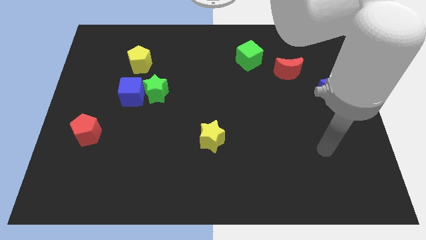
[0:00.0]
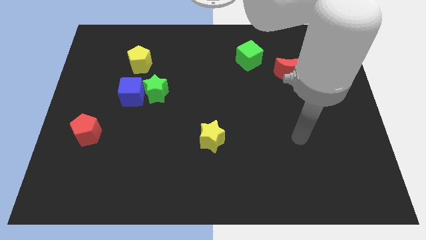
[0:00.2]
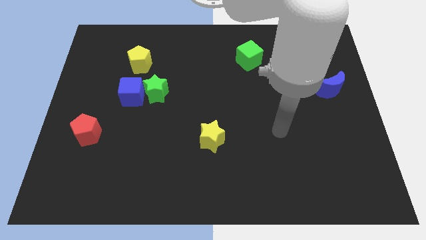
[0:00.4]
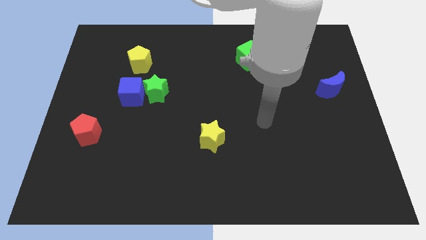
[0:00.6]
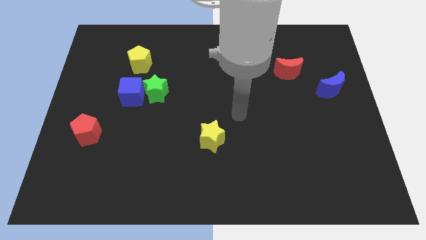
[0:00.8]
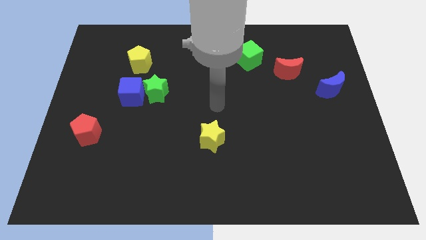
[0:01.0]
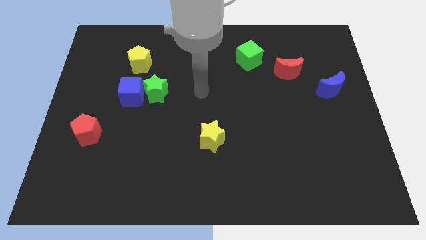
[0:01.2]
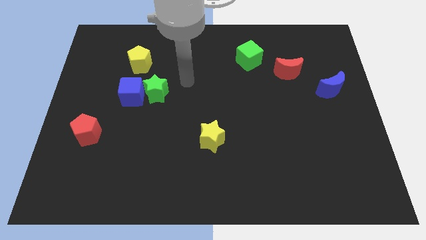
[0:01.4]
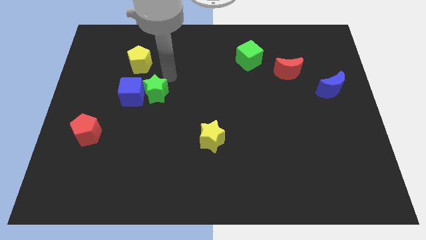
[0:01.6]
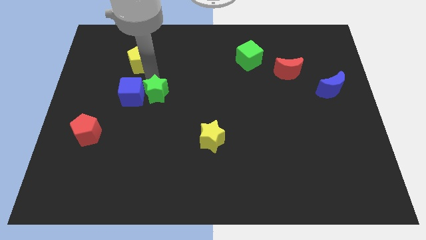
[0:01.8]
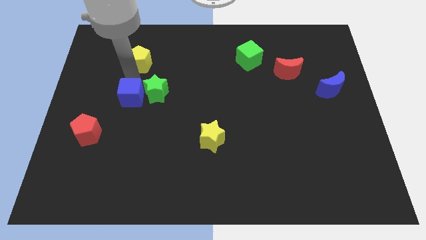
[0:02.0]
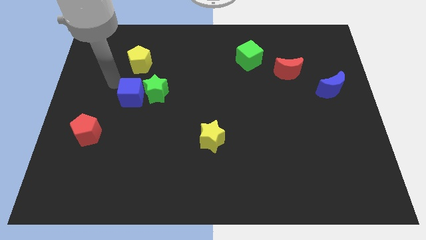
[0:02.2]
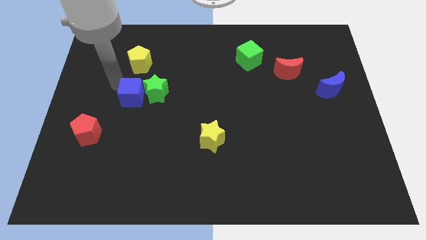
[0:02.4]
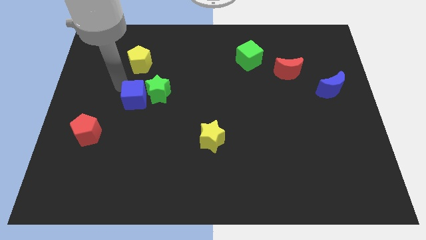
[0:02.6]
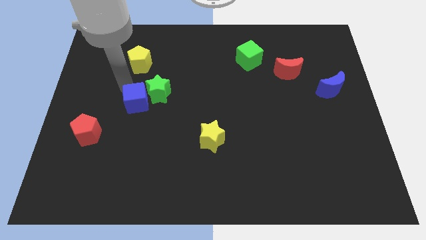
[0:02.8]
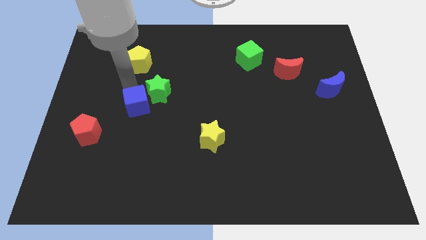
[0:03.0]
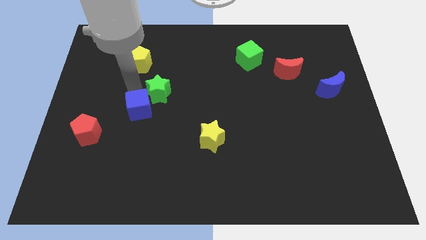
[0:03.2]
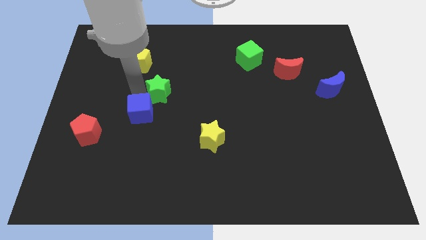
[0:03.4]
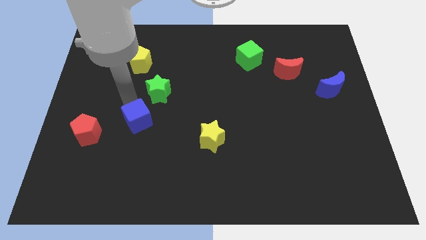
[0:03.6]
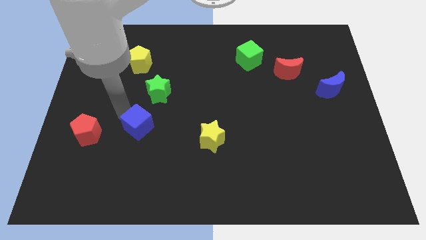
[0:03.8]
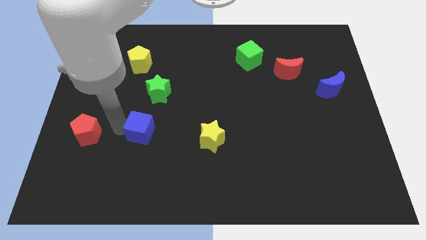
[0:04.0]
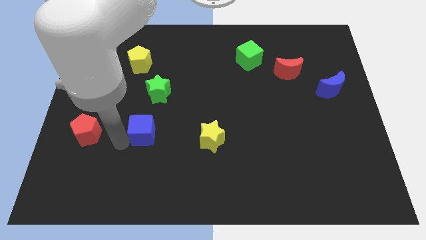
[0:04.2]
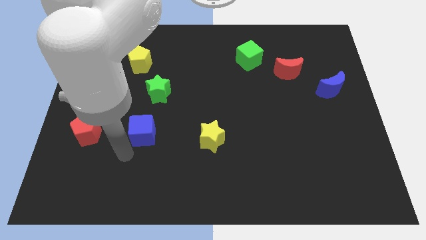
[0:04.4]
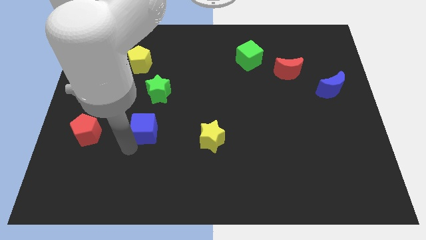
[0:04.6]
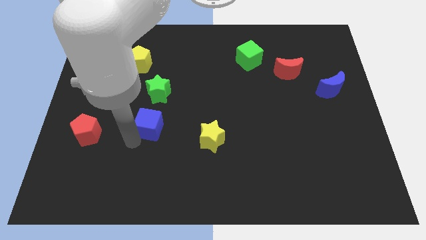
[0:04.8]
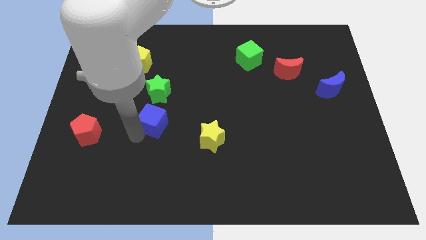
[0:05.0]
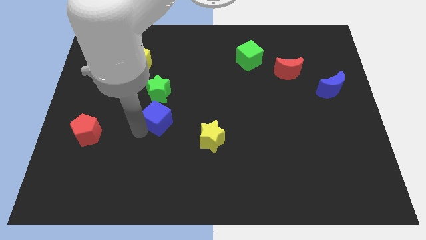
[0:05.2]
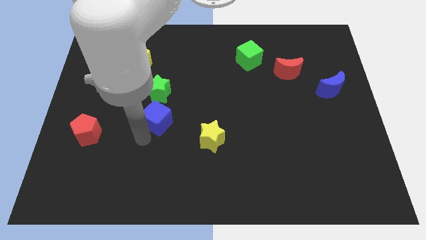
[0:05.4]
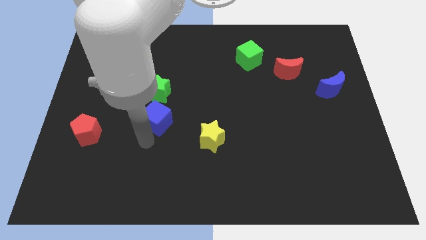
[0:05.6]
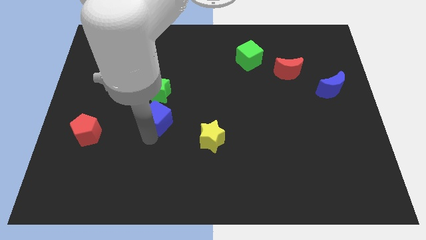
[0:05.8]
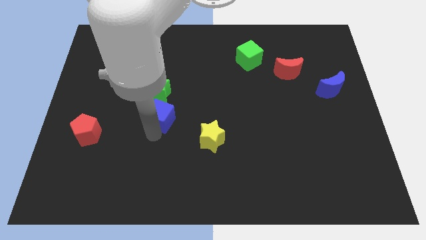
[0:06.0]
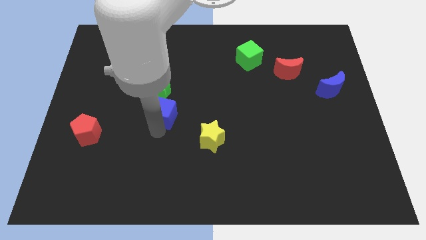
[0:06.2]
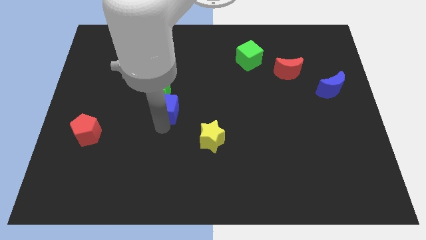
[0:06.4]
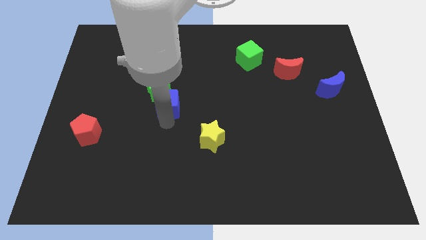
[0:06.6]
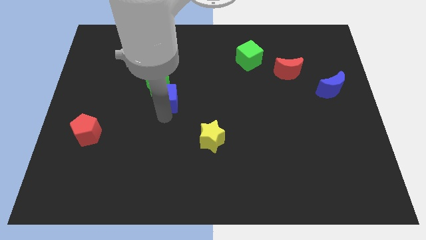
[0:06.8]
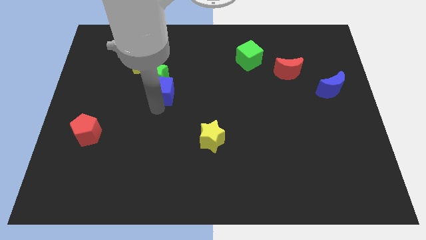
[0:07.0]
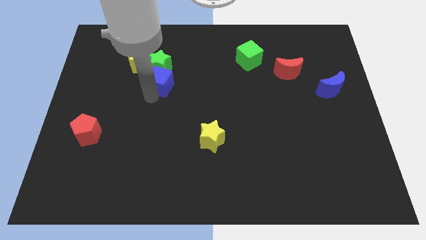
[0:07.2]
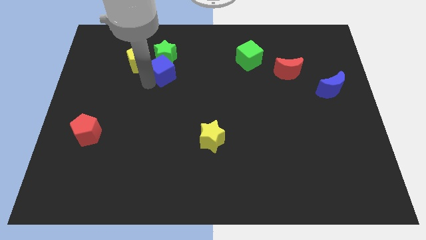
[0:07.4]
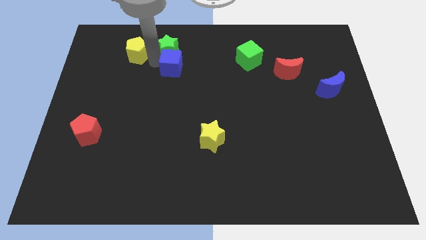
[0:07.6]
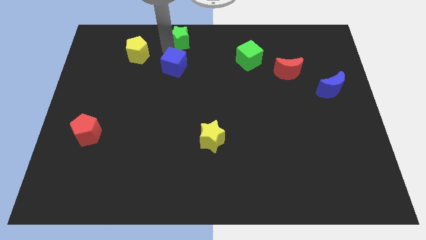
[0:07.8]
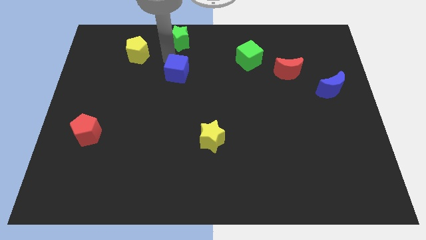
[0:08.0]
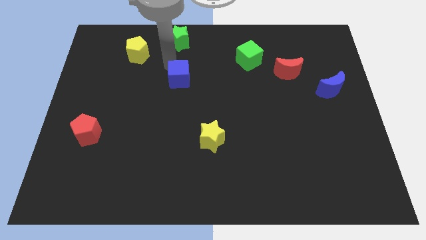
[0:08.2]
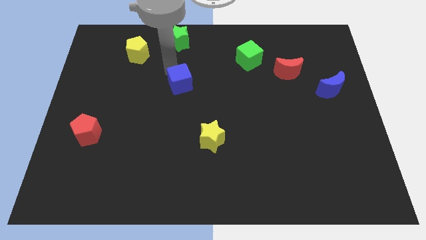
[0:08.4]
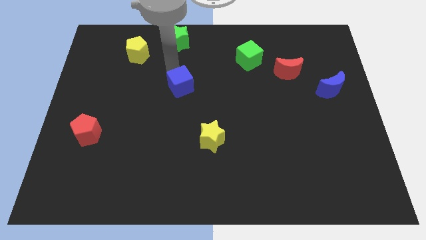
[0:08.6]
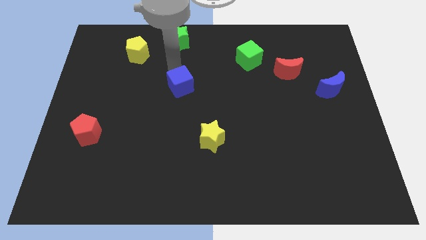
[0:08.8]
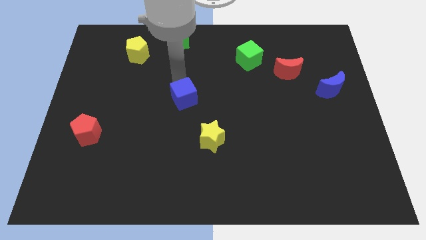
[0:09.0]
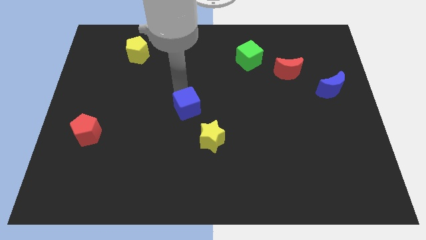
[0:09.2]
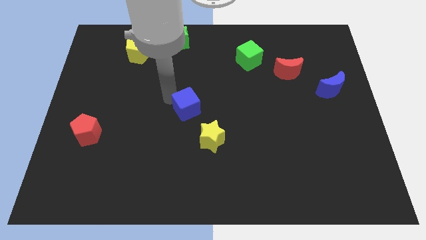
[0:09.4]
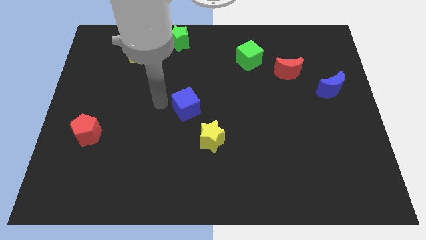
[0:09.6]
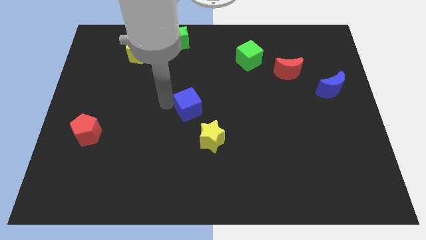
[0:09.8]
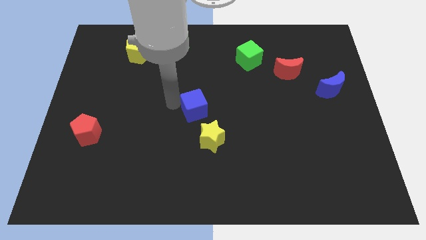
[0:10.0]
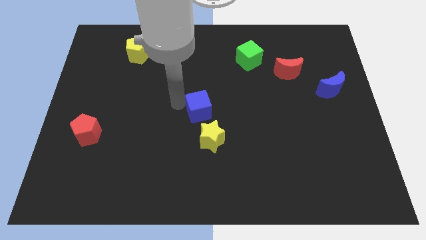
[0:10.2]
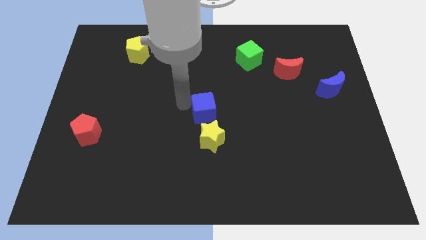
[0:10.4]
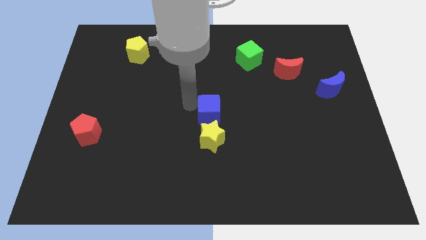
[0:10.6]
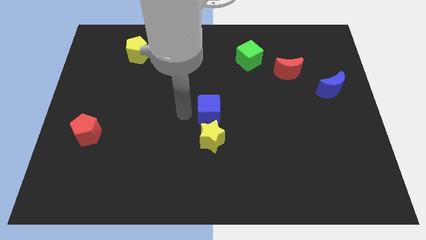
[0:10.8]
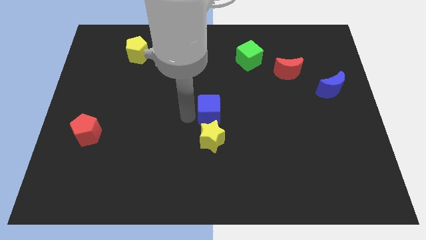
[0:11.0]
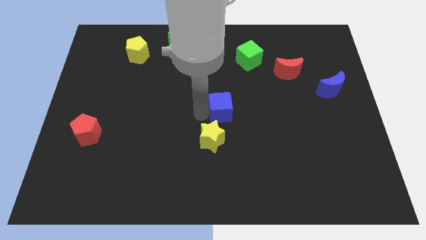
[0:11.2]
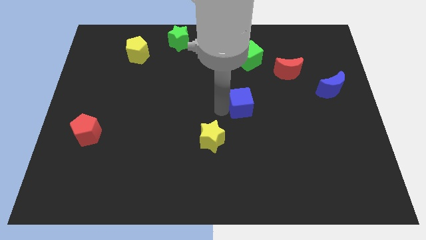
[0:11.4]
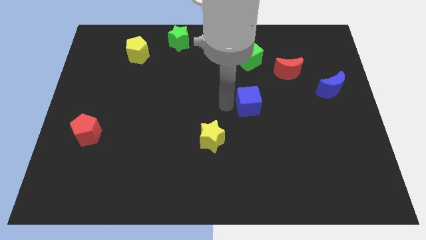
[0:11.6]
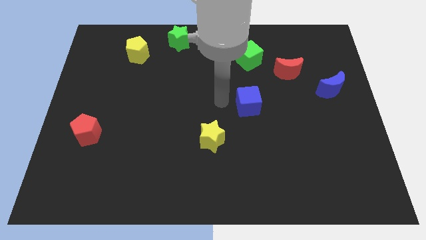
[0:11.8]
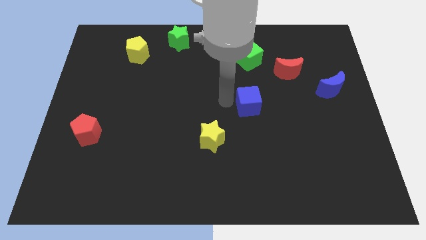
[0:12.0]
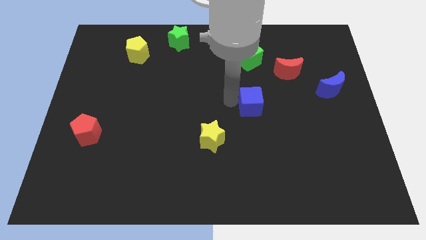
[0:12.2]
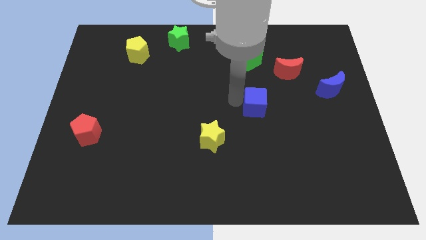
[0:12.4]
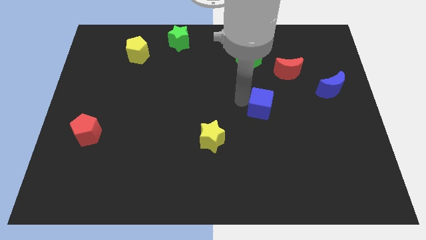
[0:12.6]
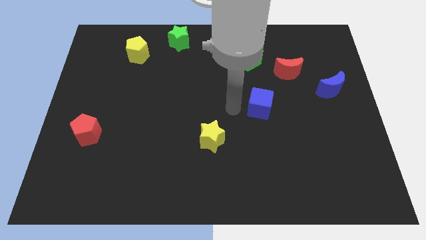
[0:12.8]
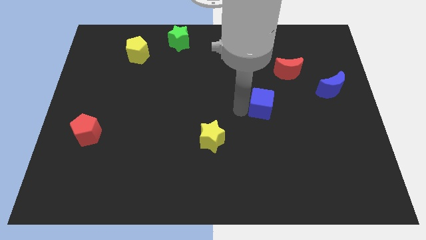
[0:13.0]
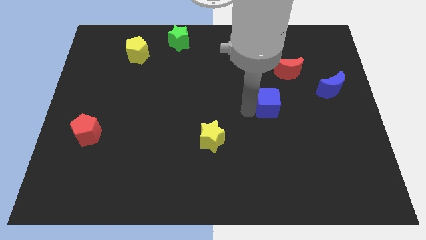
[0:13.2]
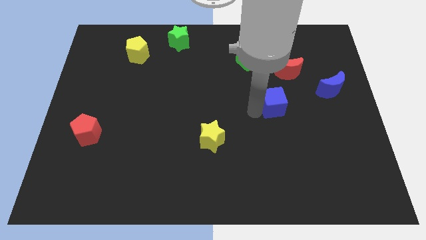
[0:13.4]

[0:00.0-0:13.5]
put the blue cube to the bottom of the red moon
